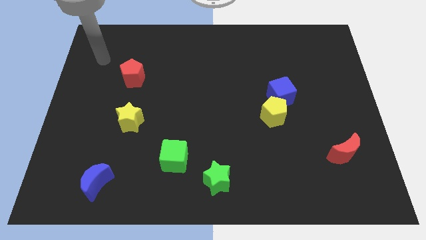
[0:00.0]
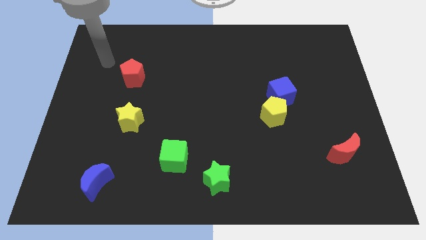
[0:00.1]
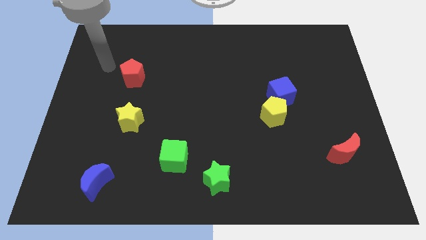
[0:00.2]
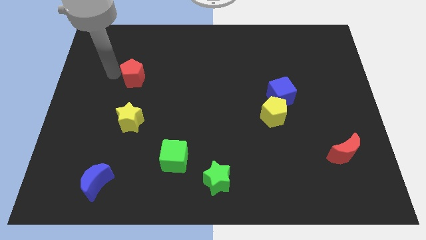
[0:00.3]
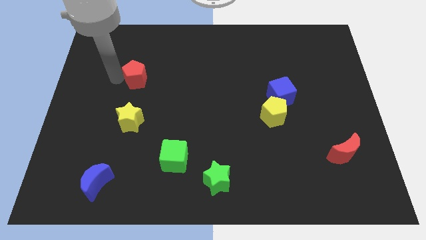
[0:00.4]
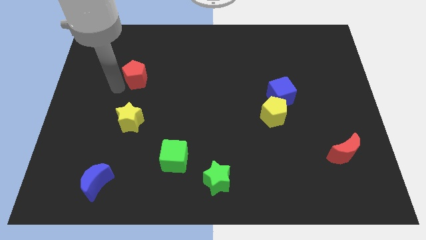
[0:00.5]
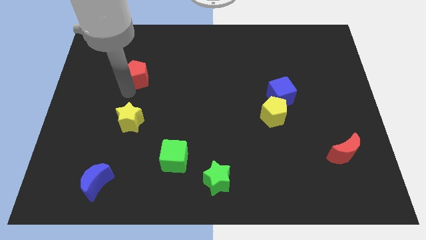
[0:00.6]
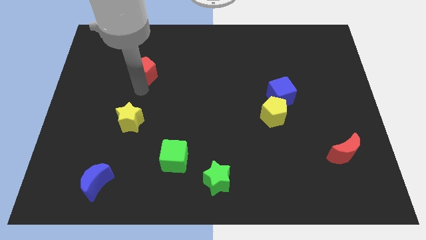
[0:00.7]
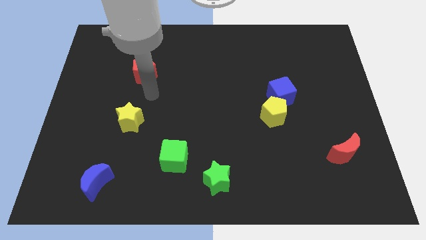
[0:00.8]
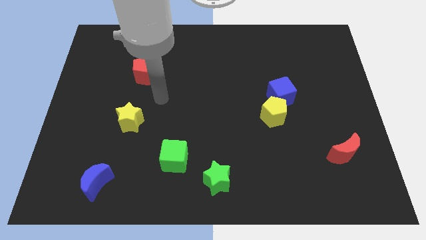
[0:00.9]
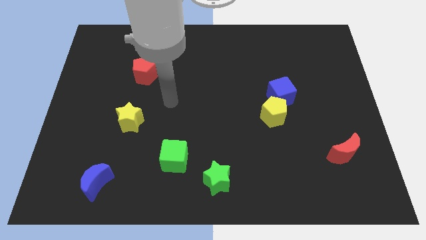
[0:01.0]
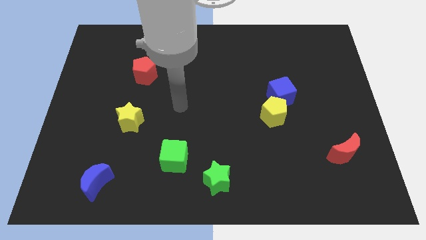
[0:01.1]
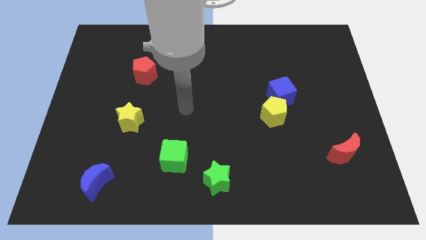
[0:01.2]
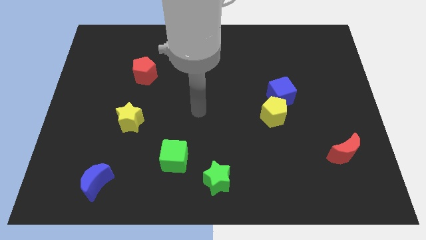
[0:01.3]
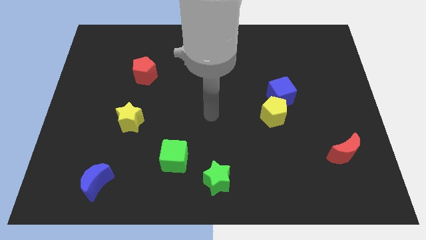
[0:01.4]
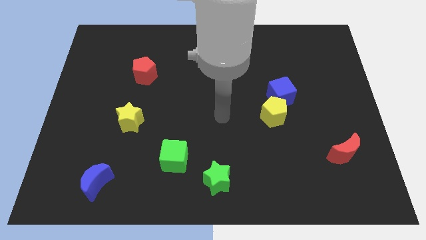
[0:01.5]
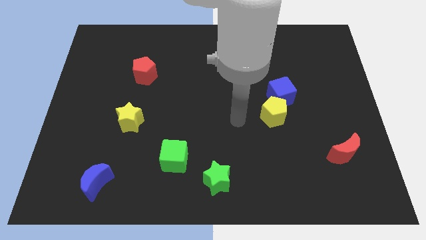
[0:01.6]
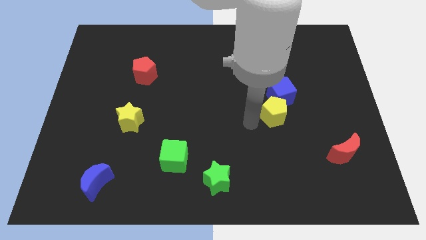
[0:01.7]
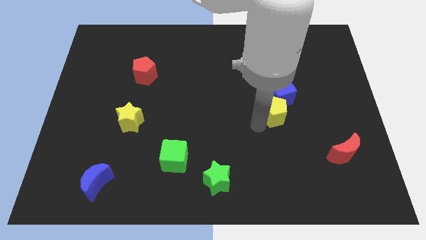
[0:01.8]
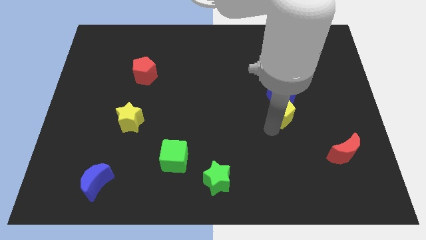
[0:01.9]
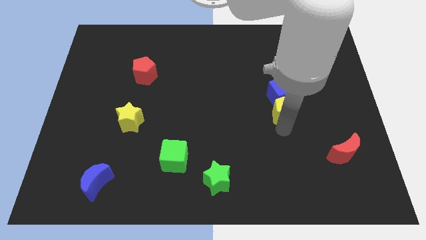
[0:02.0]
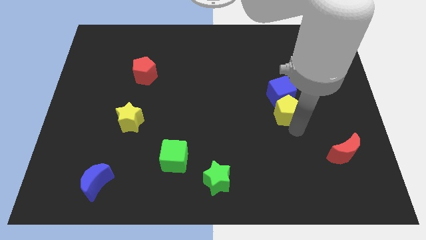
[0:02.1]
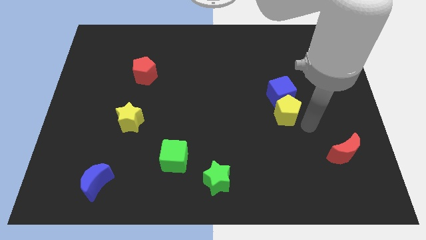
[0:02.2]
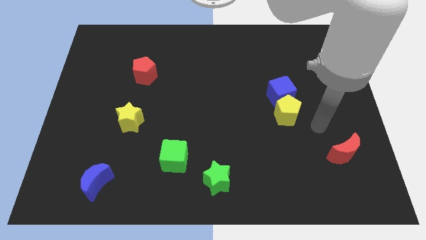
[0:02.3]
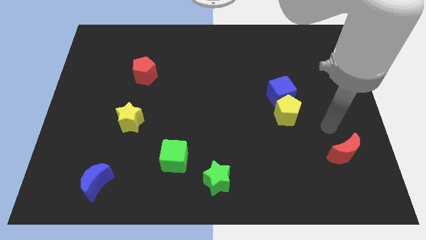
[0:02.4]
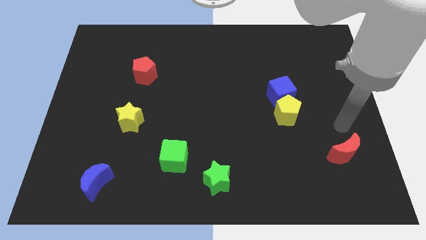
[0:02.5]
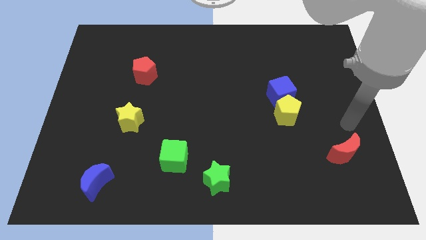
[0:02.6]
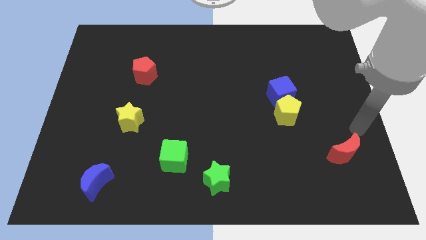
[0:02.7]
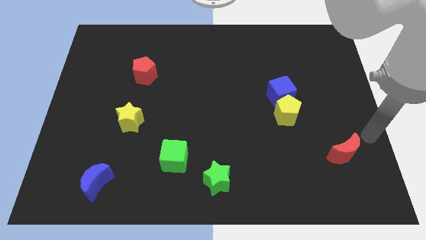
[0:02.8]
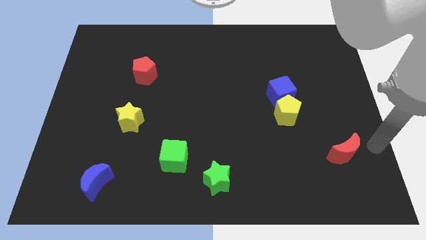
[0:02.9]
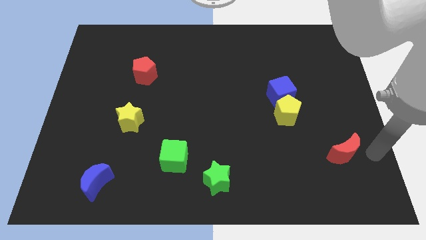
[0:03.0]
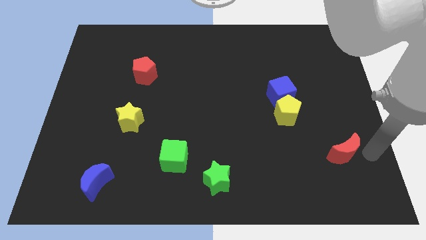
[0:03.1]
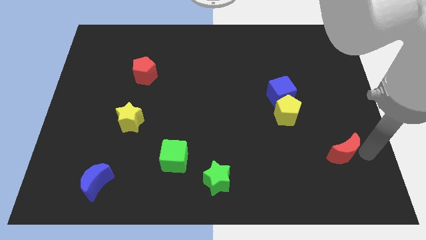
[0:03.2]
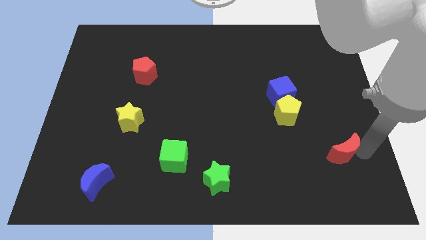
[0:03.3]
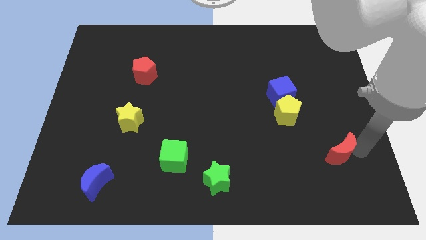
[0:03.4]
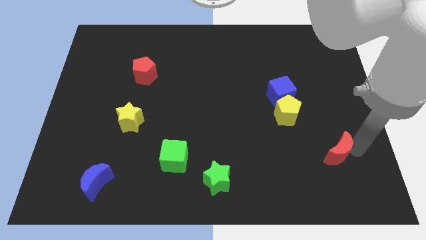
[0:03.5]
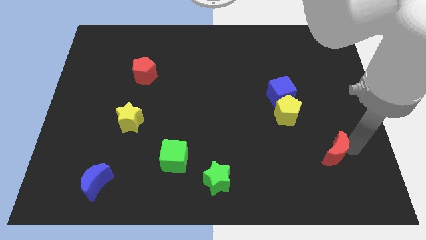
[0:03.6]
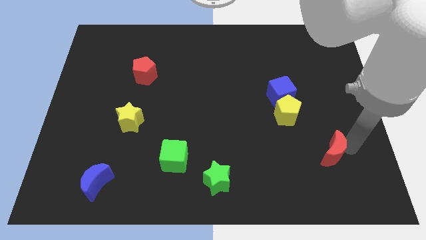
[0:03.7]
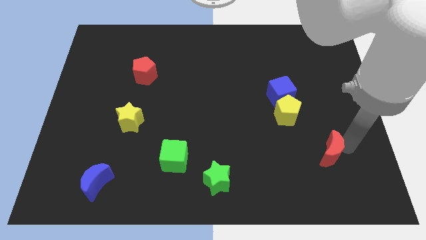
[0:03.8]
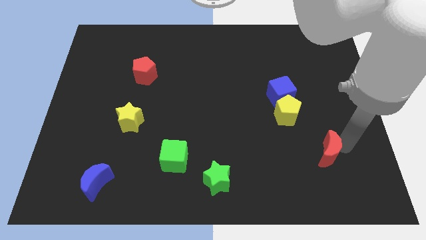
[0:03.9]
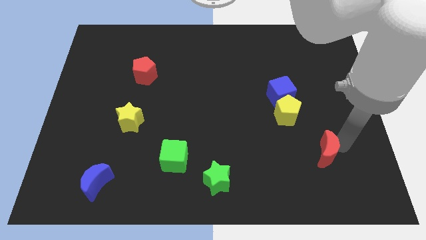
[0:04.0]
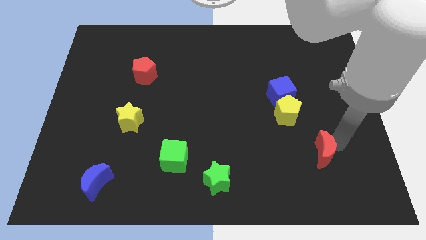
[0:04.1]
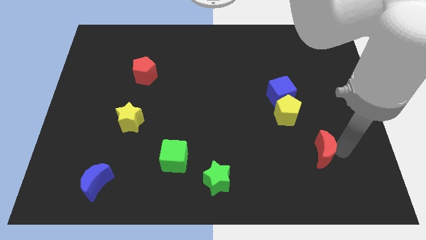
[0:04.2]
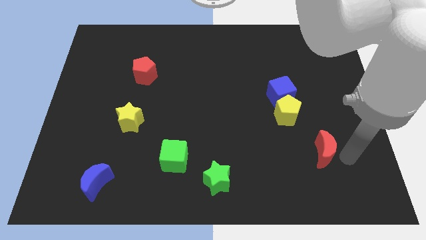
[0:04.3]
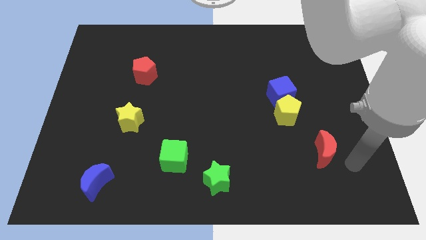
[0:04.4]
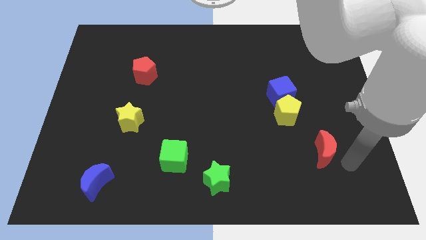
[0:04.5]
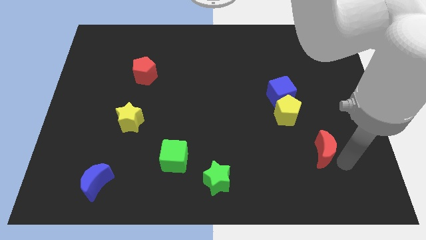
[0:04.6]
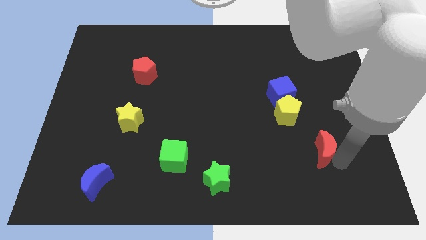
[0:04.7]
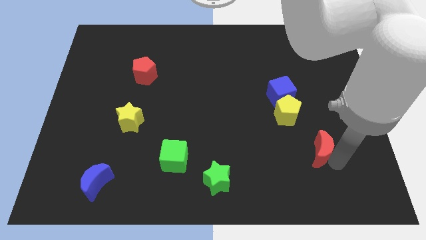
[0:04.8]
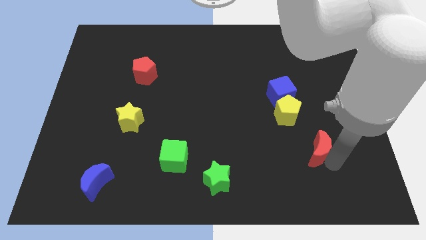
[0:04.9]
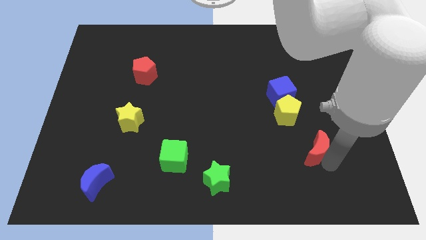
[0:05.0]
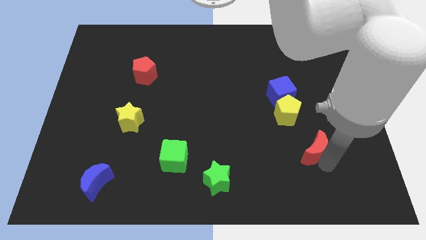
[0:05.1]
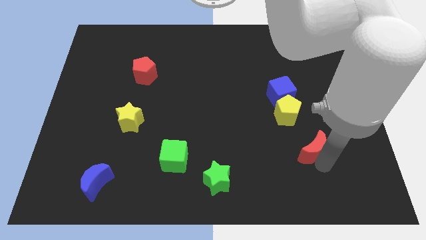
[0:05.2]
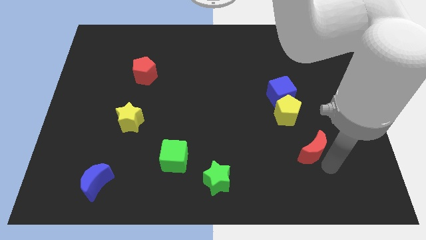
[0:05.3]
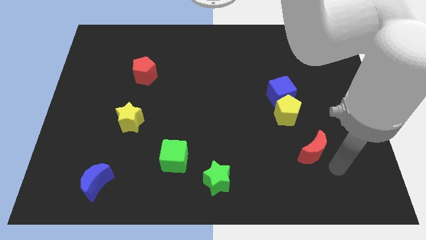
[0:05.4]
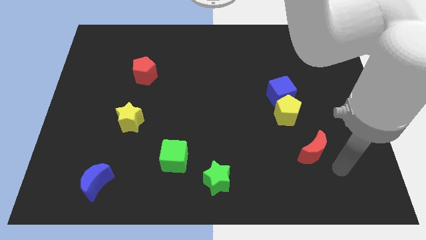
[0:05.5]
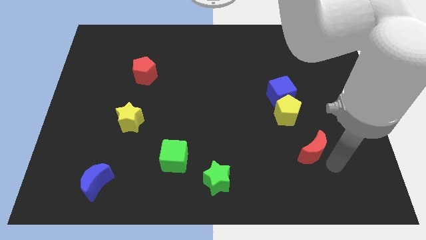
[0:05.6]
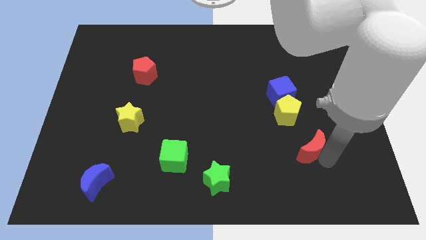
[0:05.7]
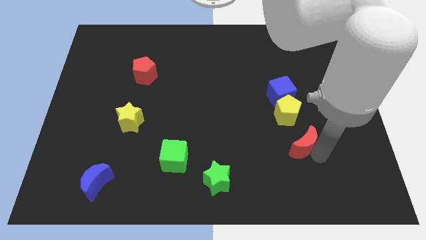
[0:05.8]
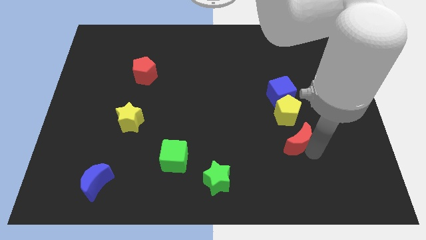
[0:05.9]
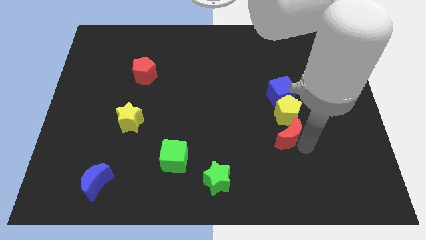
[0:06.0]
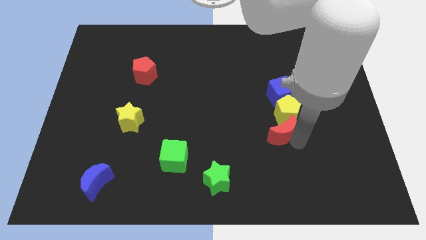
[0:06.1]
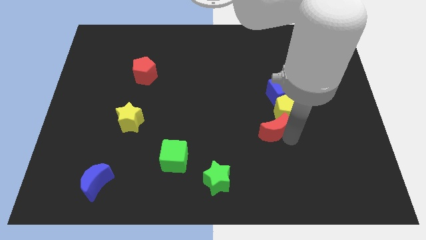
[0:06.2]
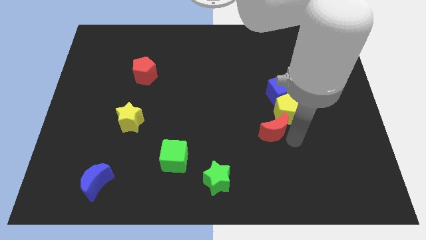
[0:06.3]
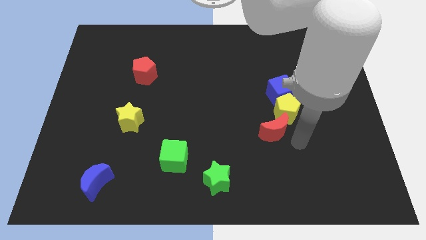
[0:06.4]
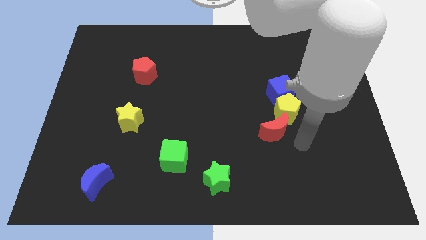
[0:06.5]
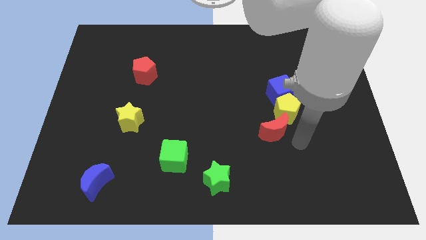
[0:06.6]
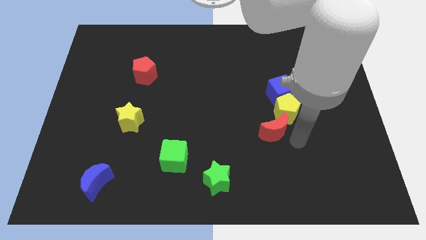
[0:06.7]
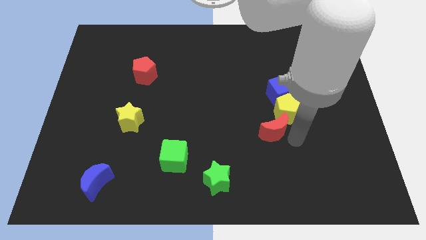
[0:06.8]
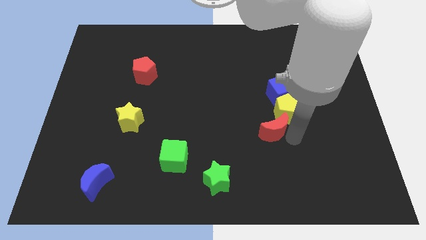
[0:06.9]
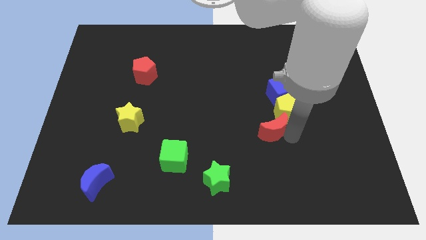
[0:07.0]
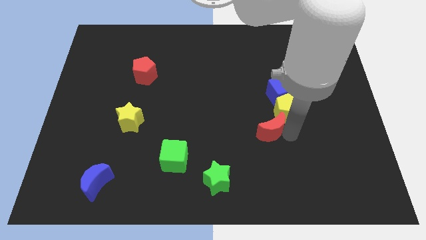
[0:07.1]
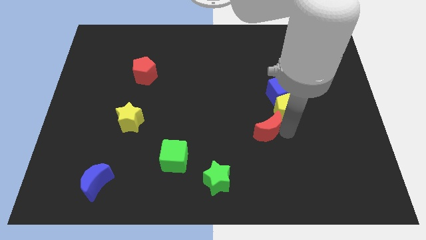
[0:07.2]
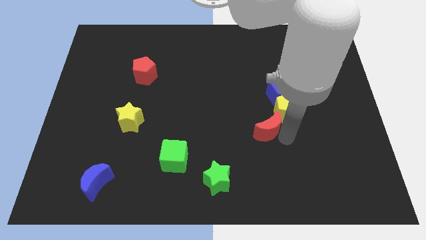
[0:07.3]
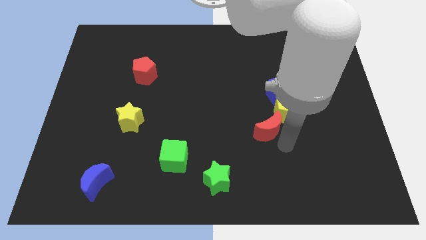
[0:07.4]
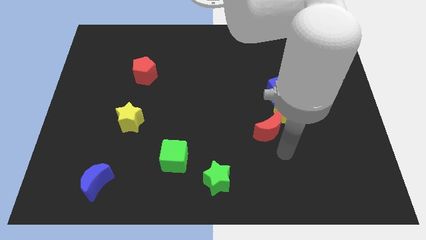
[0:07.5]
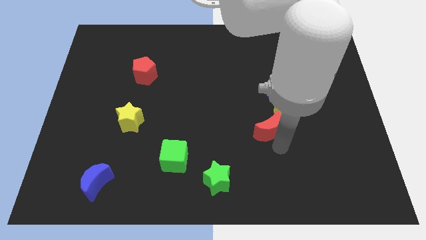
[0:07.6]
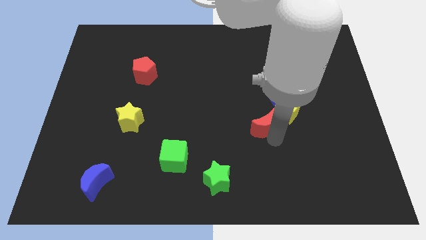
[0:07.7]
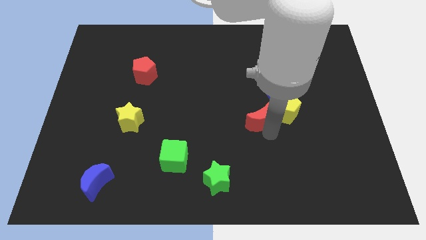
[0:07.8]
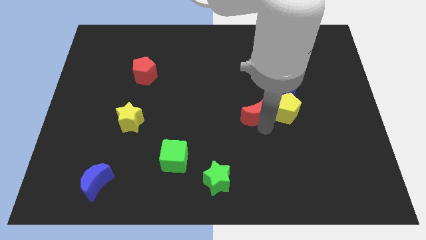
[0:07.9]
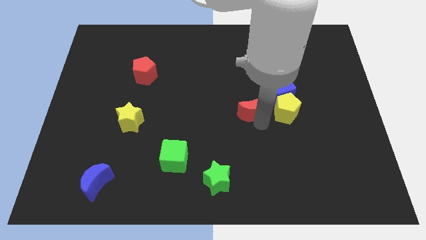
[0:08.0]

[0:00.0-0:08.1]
push the red moon up and then to the left
